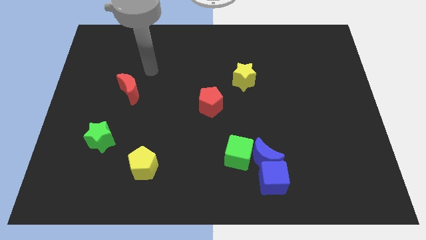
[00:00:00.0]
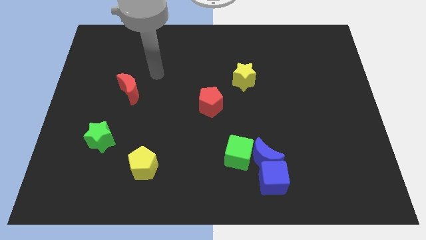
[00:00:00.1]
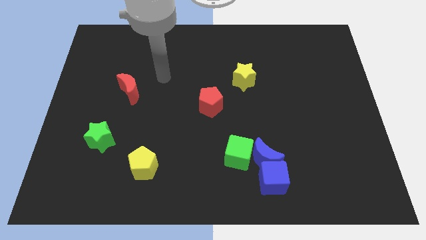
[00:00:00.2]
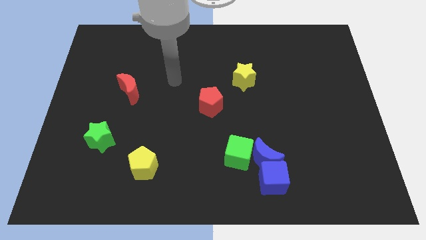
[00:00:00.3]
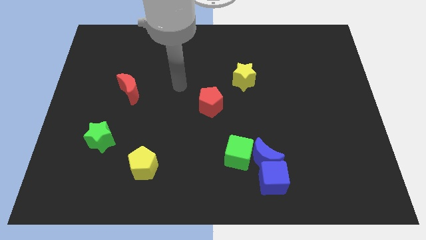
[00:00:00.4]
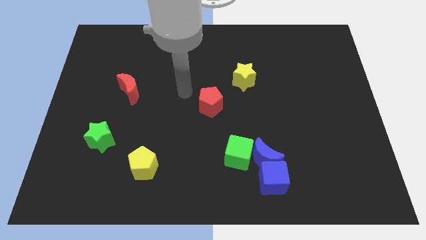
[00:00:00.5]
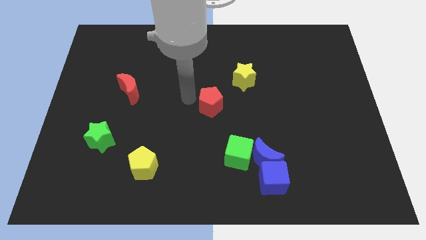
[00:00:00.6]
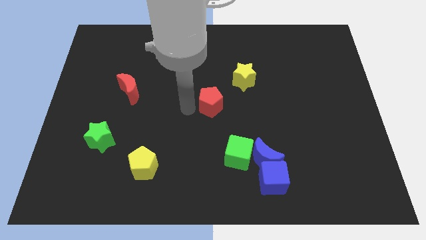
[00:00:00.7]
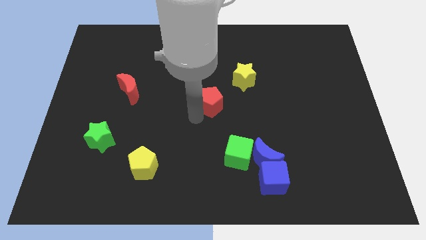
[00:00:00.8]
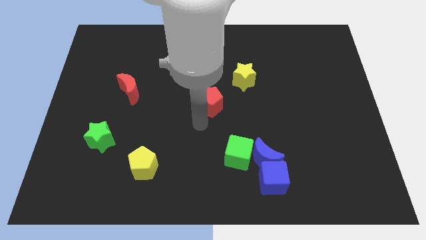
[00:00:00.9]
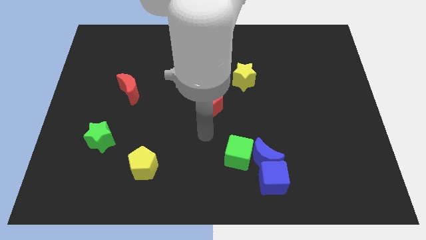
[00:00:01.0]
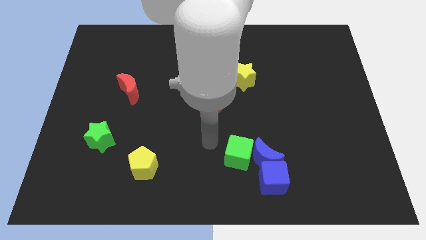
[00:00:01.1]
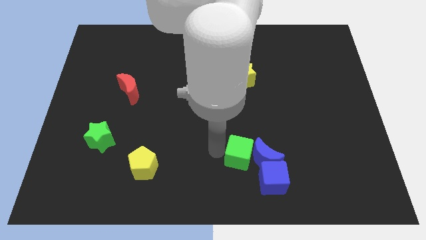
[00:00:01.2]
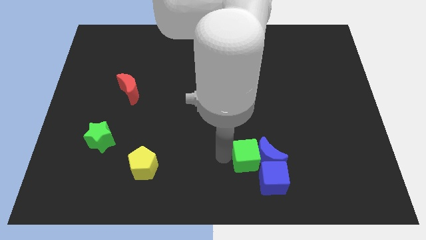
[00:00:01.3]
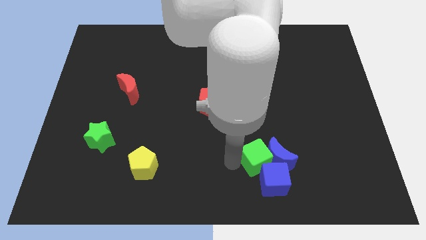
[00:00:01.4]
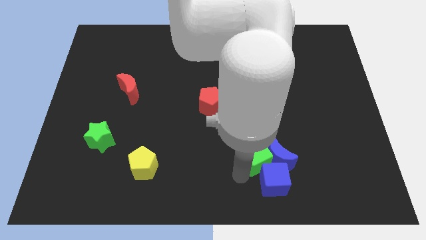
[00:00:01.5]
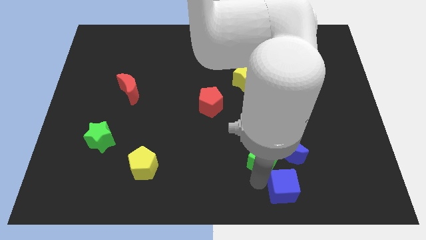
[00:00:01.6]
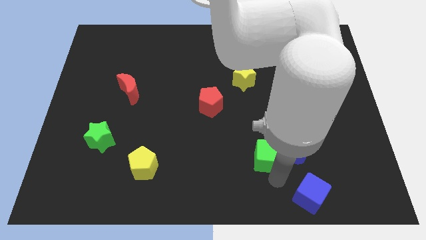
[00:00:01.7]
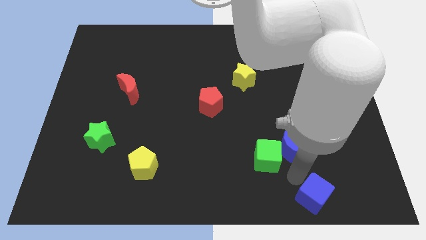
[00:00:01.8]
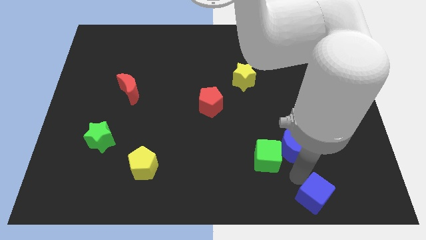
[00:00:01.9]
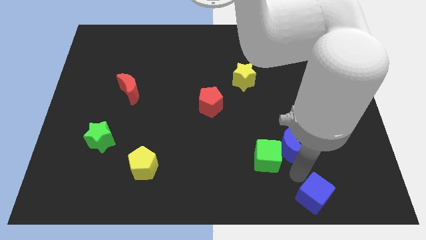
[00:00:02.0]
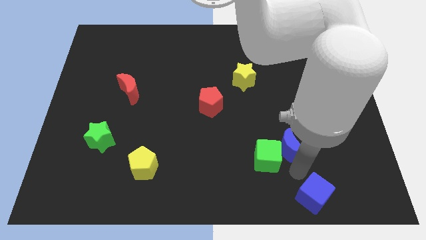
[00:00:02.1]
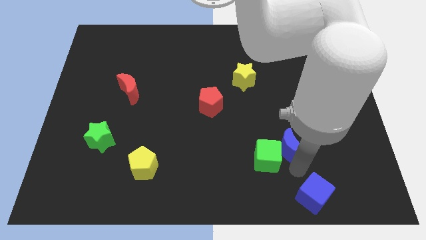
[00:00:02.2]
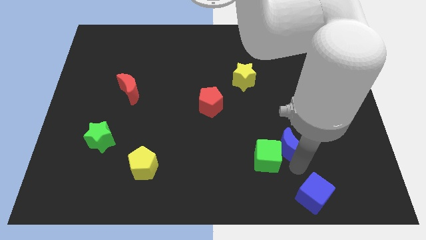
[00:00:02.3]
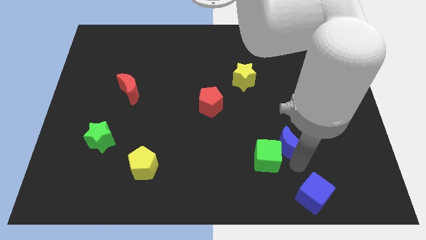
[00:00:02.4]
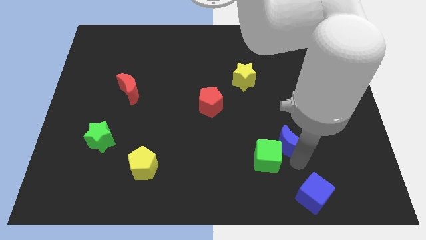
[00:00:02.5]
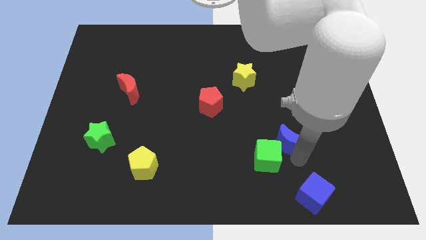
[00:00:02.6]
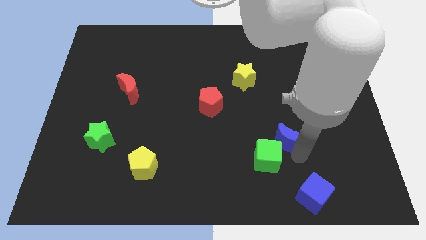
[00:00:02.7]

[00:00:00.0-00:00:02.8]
move the blue moon upwards and to the right slightly

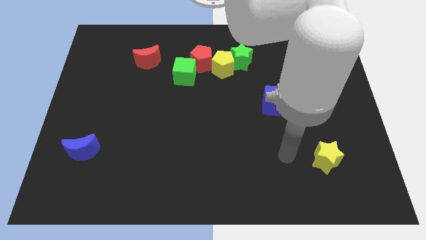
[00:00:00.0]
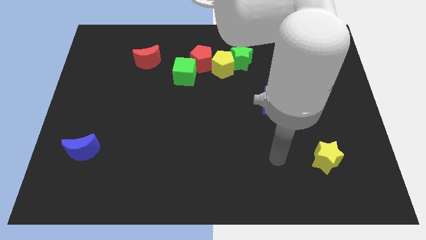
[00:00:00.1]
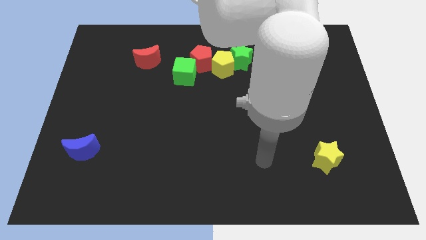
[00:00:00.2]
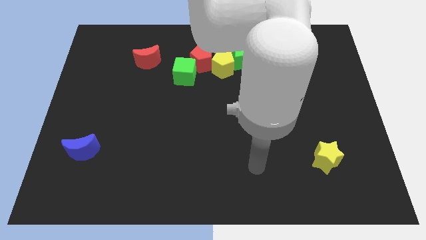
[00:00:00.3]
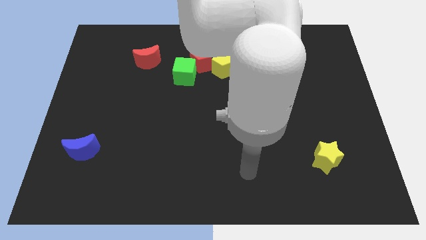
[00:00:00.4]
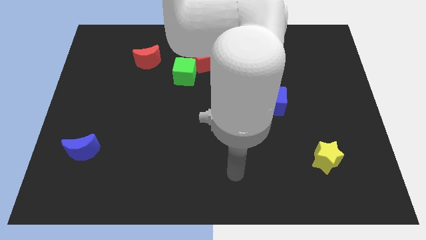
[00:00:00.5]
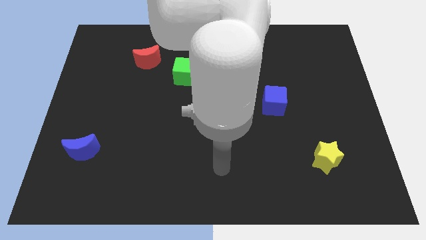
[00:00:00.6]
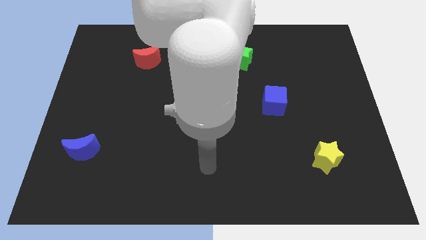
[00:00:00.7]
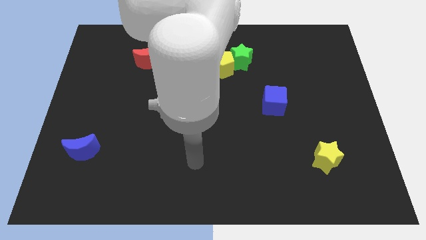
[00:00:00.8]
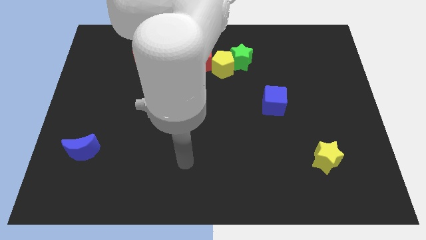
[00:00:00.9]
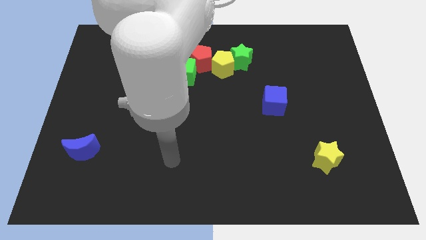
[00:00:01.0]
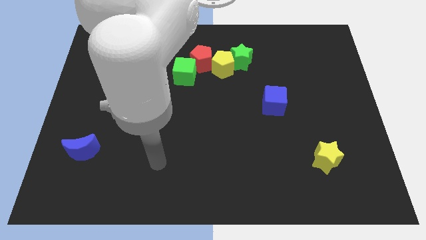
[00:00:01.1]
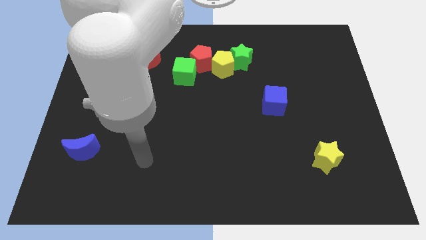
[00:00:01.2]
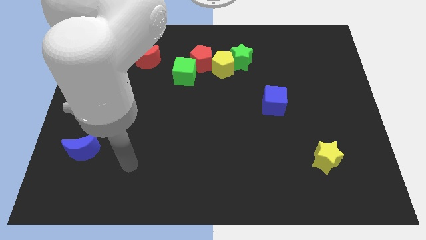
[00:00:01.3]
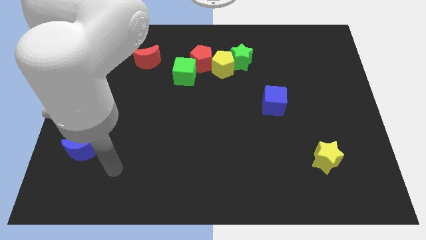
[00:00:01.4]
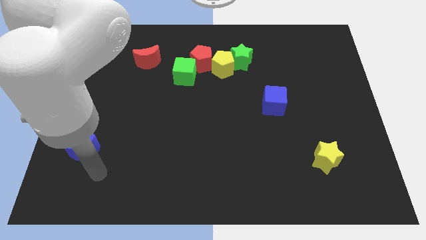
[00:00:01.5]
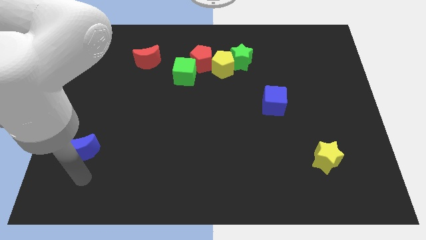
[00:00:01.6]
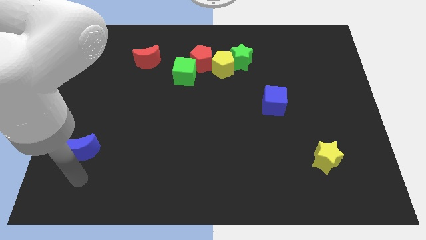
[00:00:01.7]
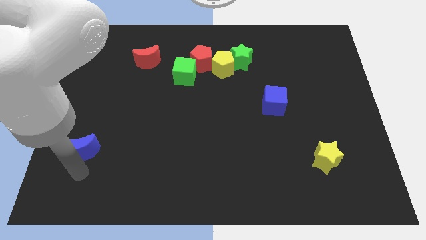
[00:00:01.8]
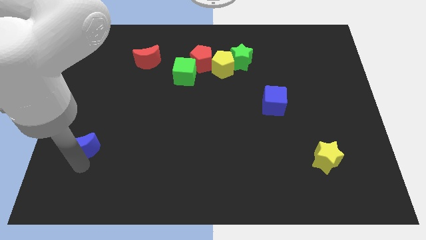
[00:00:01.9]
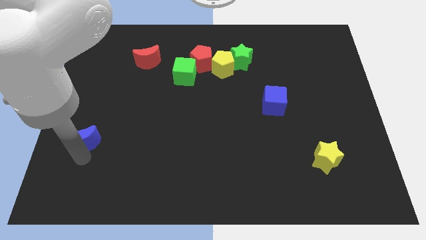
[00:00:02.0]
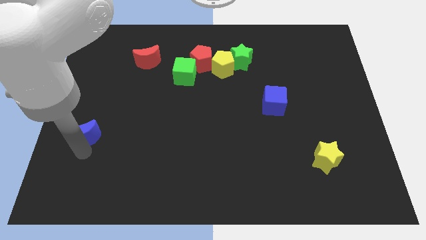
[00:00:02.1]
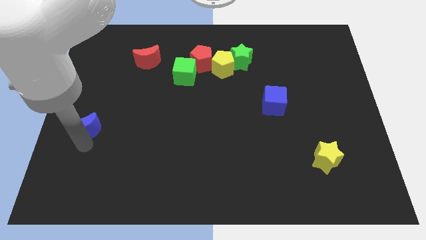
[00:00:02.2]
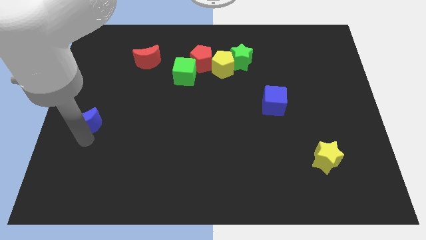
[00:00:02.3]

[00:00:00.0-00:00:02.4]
slightly move the blue moon up

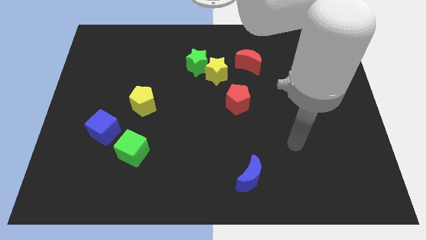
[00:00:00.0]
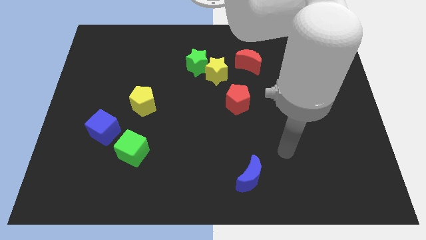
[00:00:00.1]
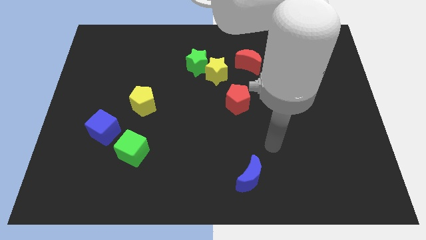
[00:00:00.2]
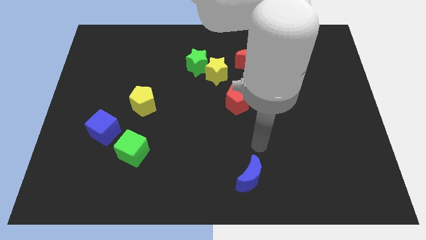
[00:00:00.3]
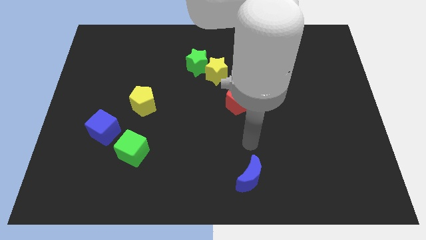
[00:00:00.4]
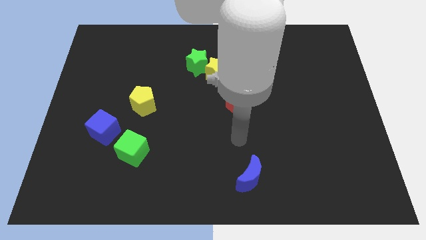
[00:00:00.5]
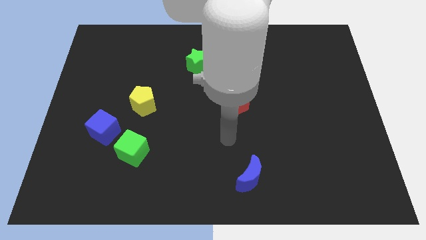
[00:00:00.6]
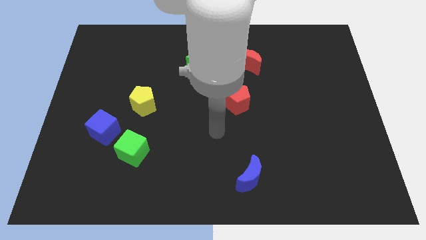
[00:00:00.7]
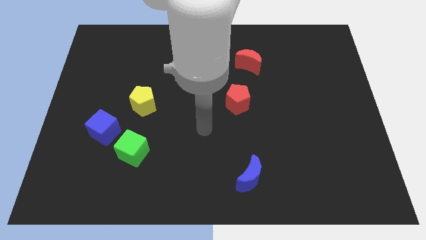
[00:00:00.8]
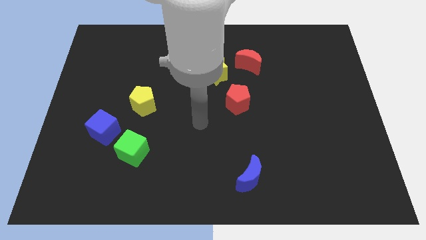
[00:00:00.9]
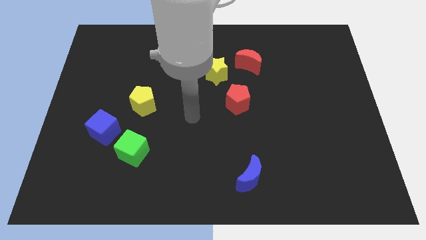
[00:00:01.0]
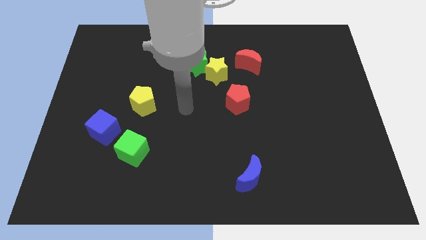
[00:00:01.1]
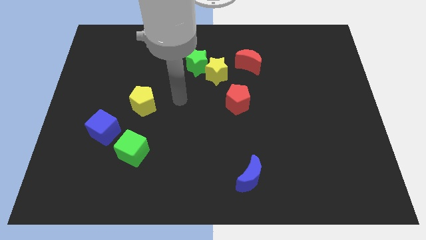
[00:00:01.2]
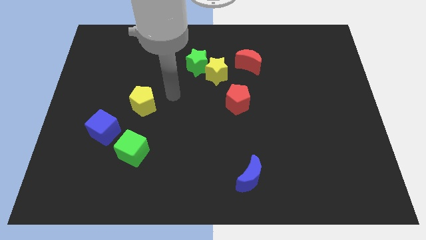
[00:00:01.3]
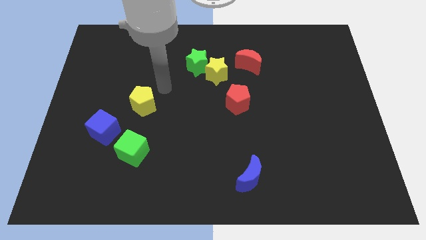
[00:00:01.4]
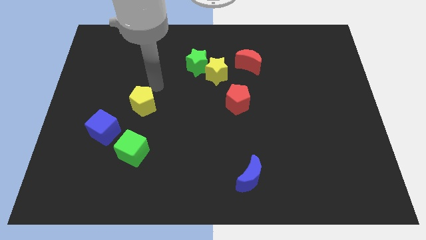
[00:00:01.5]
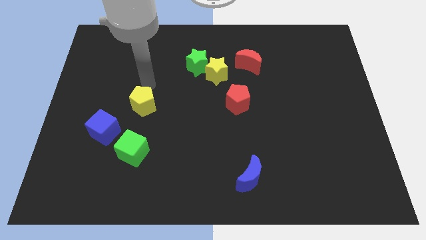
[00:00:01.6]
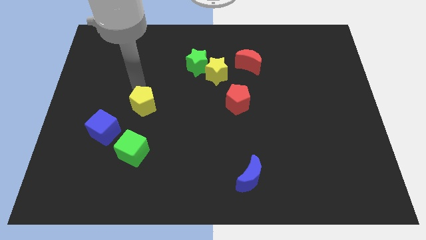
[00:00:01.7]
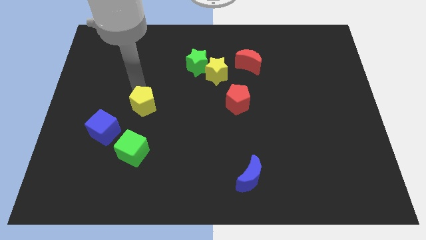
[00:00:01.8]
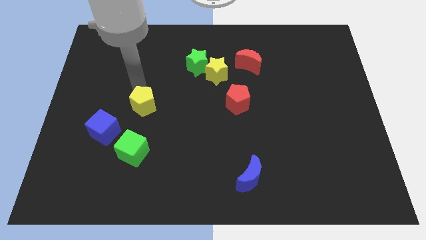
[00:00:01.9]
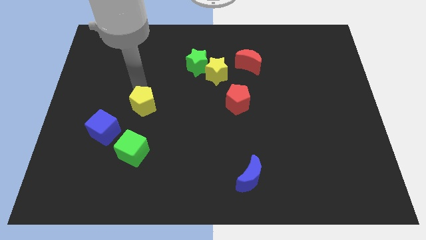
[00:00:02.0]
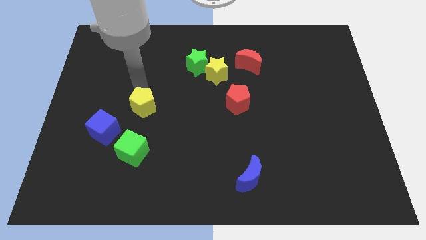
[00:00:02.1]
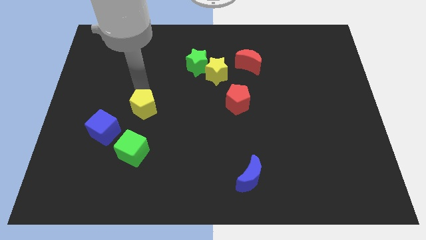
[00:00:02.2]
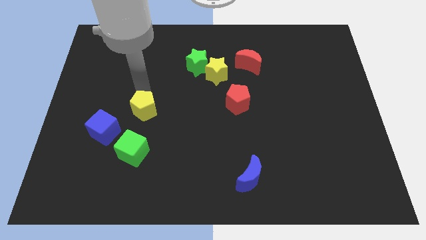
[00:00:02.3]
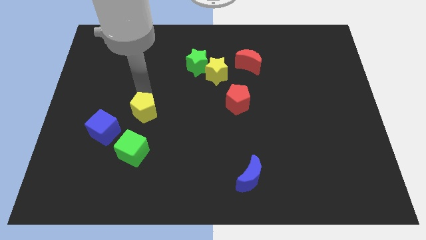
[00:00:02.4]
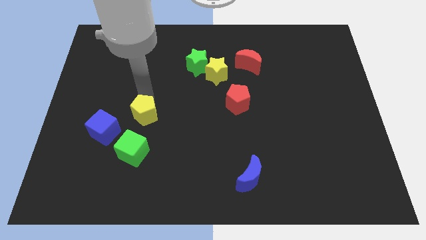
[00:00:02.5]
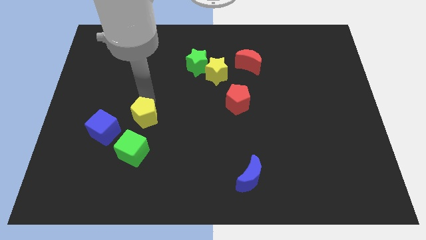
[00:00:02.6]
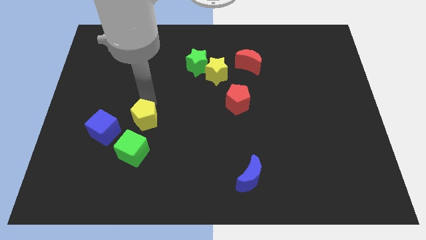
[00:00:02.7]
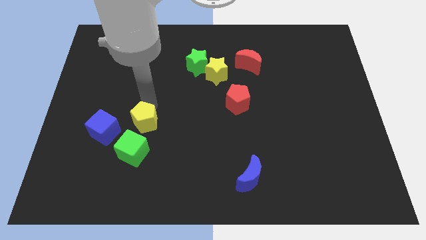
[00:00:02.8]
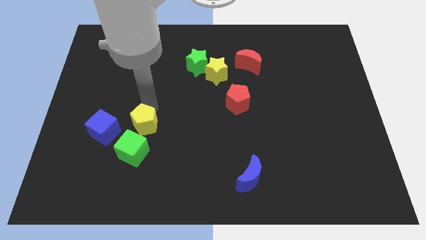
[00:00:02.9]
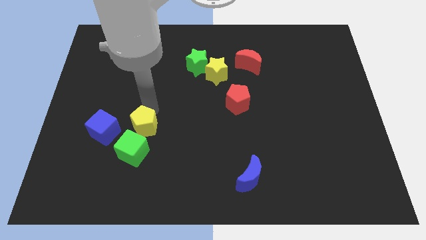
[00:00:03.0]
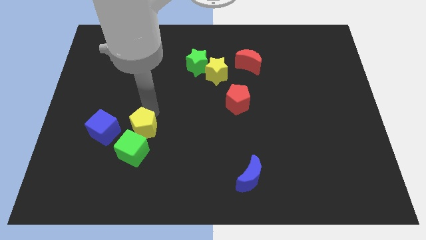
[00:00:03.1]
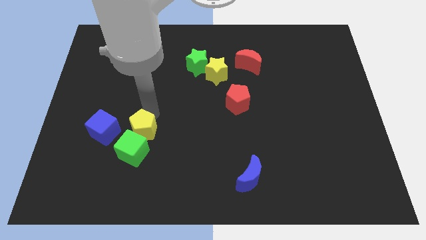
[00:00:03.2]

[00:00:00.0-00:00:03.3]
slightly slide the yellow pentagon down
